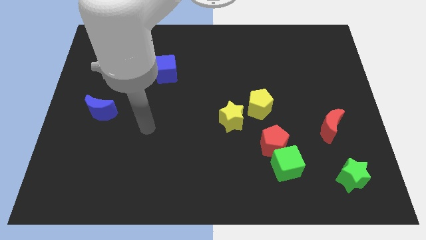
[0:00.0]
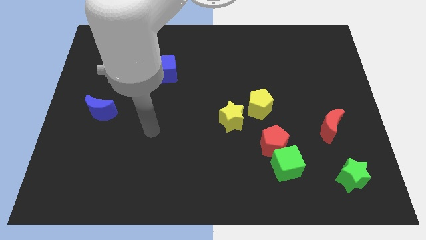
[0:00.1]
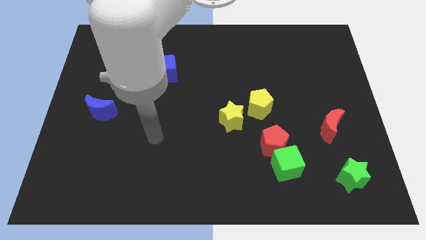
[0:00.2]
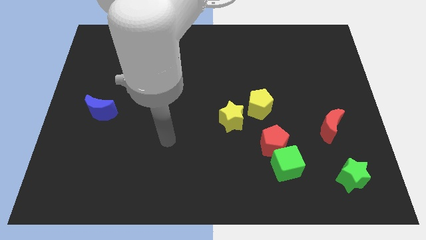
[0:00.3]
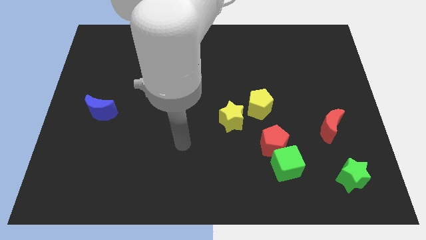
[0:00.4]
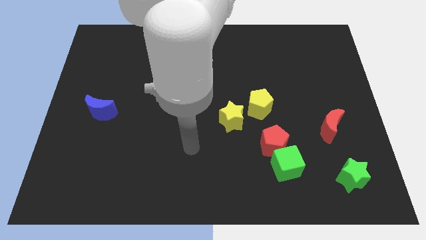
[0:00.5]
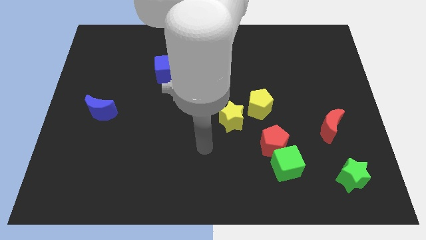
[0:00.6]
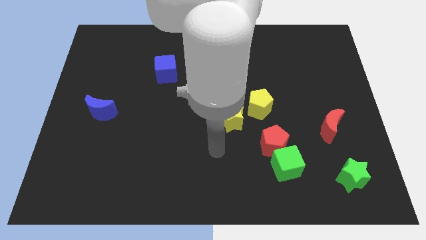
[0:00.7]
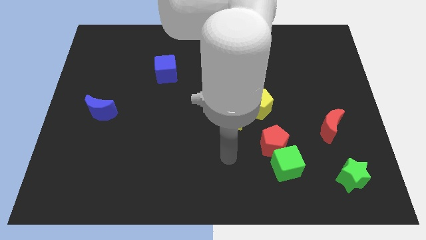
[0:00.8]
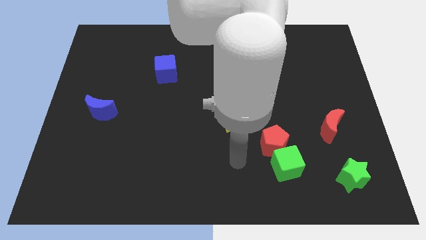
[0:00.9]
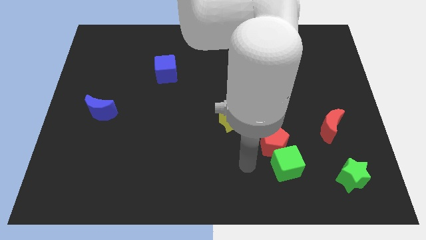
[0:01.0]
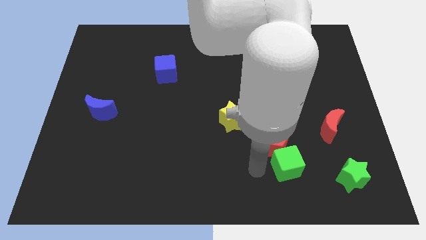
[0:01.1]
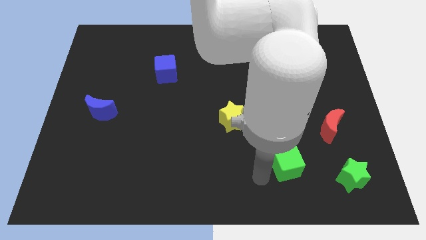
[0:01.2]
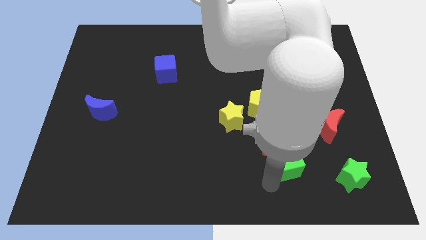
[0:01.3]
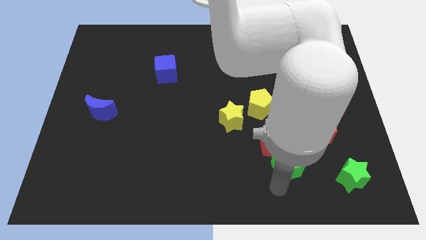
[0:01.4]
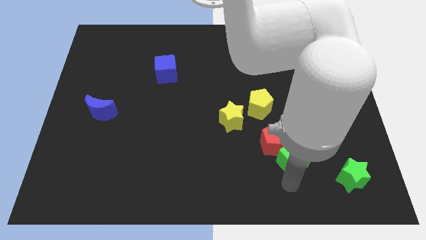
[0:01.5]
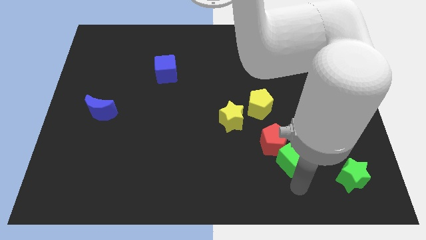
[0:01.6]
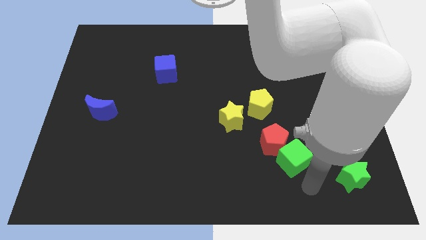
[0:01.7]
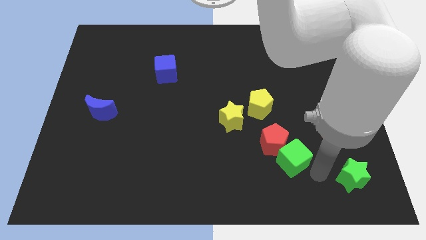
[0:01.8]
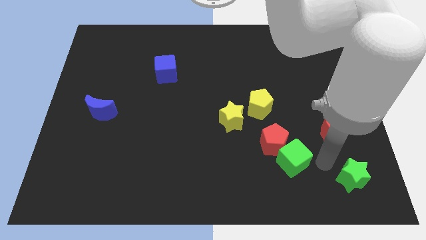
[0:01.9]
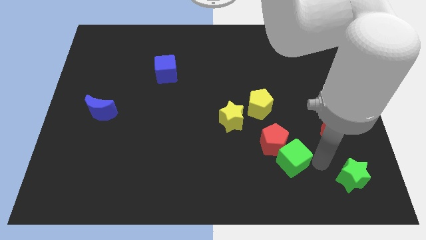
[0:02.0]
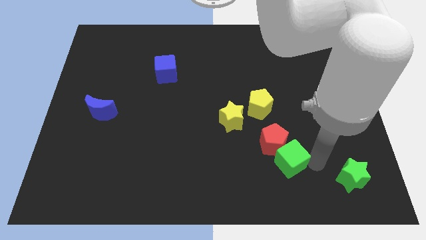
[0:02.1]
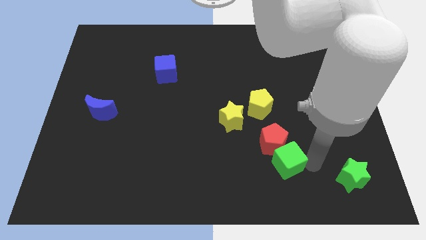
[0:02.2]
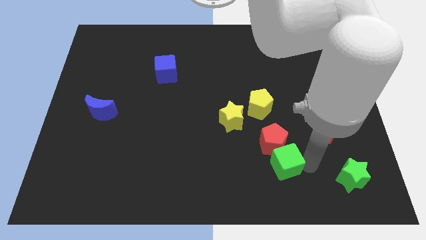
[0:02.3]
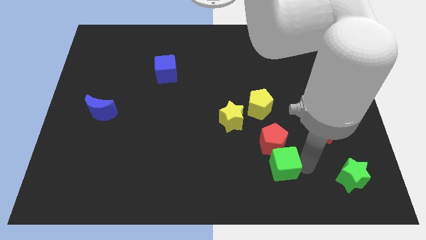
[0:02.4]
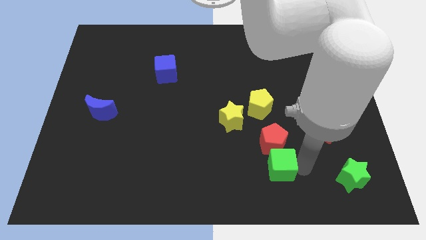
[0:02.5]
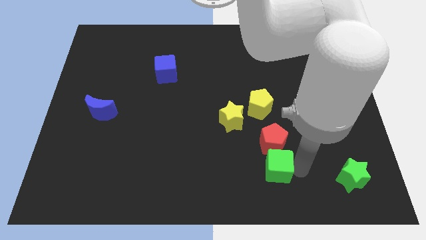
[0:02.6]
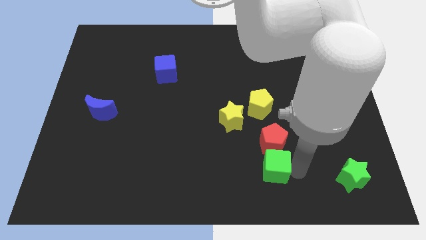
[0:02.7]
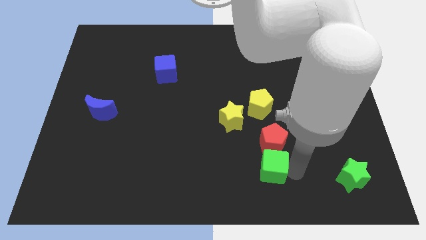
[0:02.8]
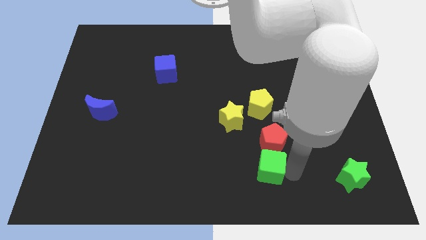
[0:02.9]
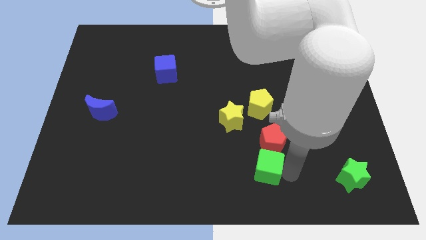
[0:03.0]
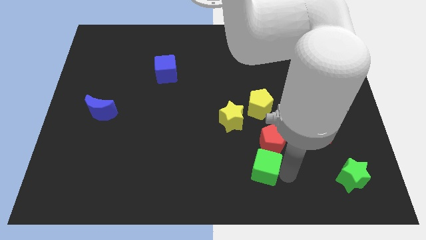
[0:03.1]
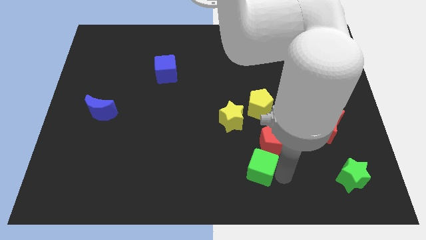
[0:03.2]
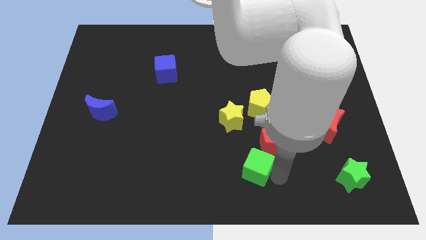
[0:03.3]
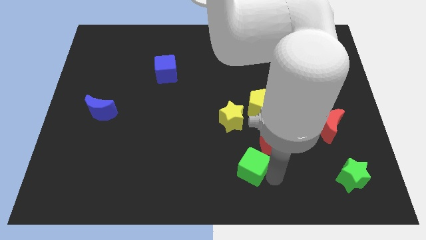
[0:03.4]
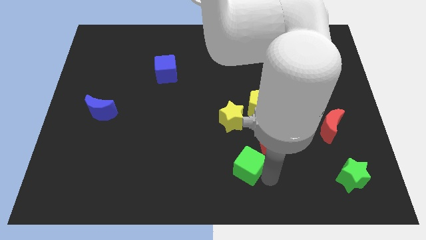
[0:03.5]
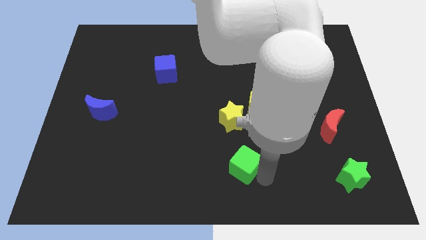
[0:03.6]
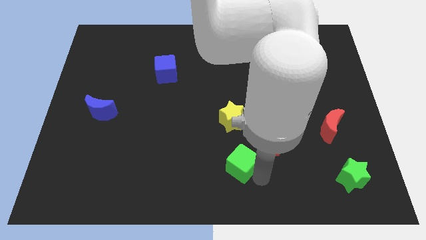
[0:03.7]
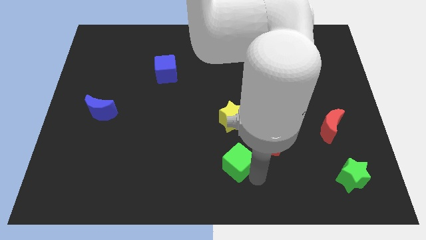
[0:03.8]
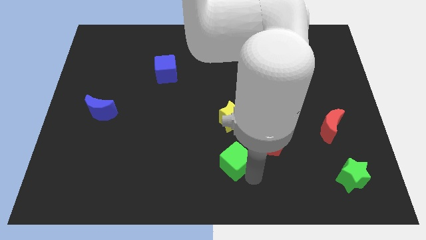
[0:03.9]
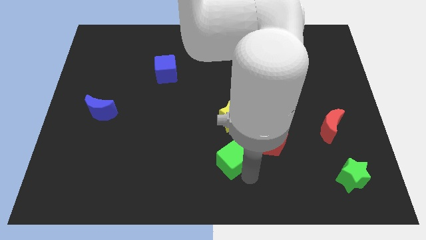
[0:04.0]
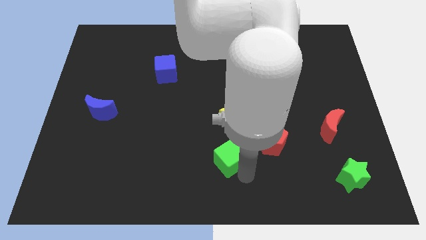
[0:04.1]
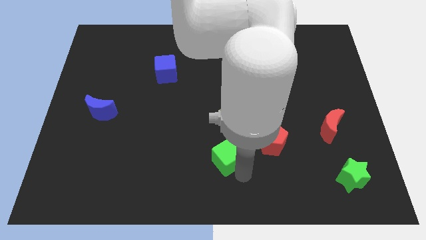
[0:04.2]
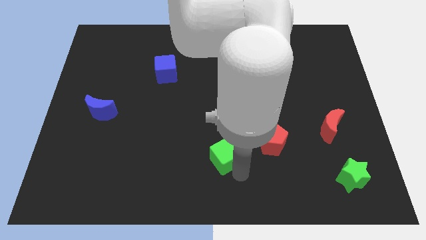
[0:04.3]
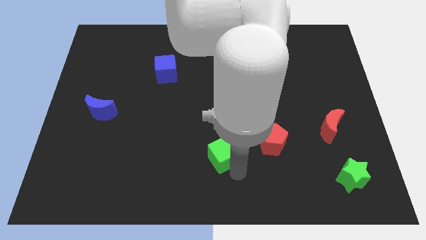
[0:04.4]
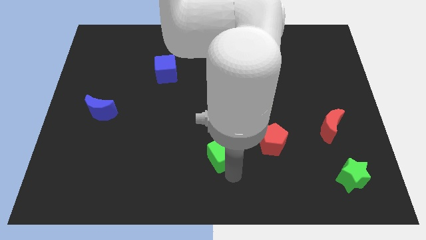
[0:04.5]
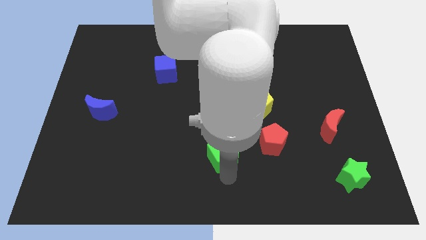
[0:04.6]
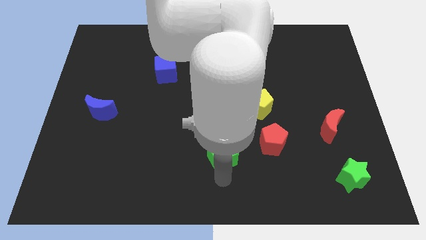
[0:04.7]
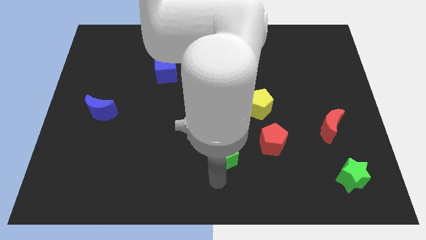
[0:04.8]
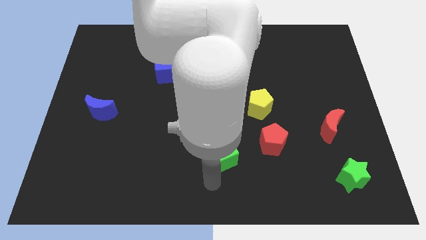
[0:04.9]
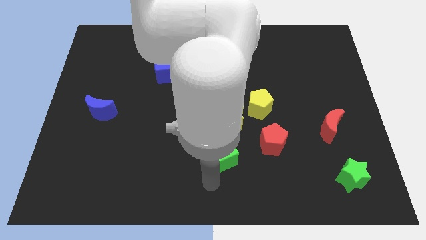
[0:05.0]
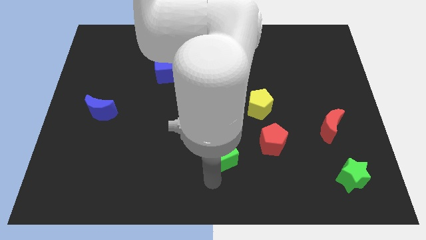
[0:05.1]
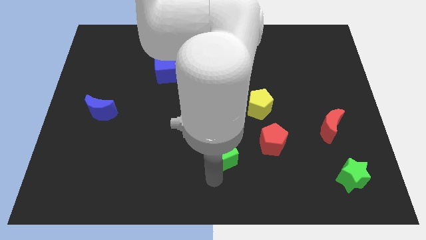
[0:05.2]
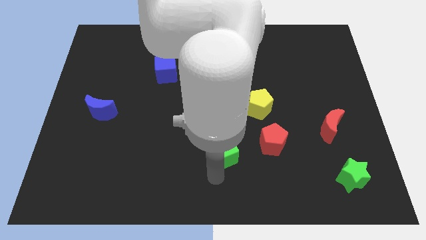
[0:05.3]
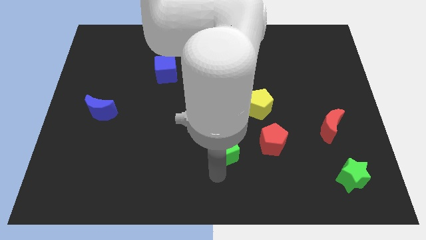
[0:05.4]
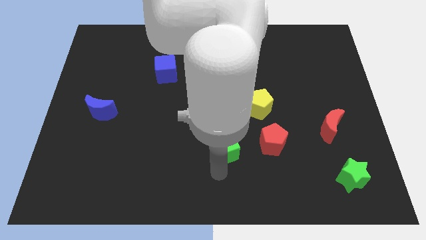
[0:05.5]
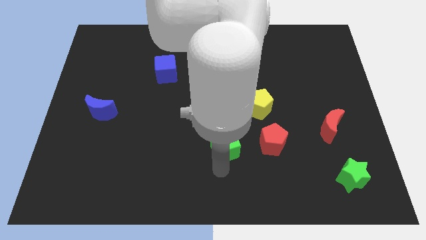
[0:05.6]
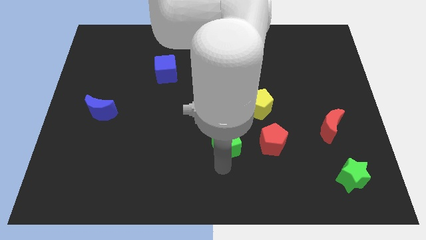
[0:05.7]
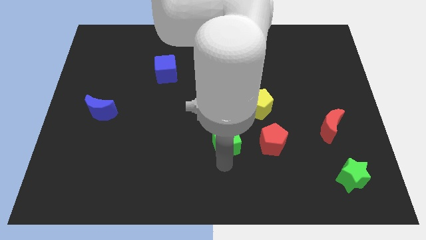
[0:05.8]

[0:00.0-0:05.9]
put the green cube to the middle

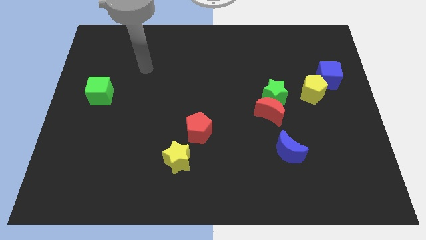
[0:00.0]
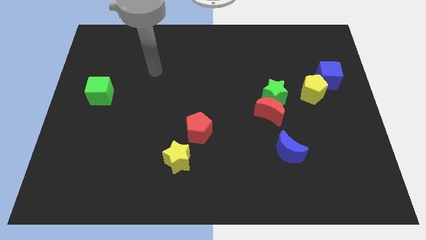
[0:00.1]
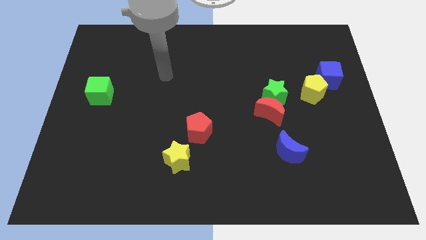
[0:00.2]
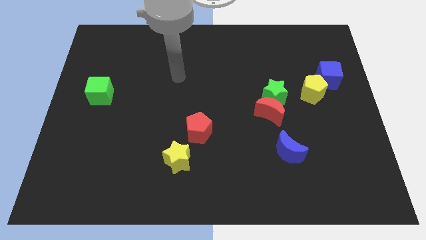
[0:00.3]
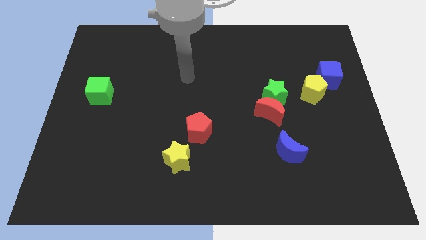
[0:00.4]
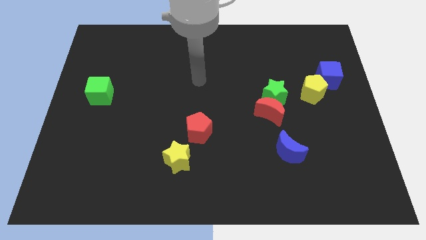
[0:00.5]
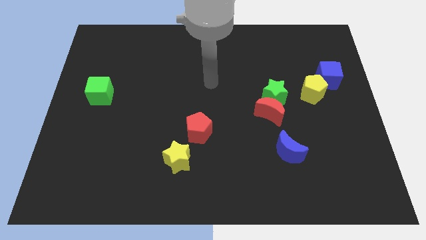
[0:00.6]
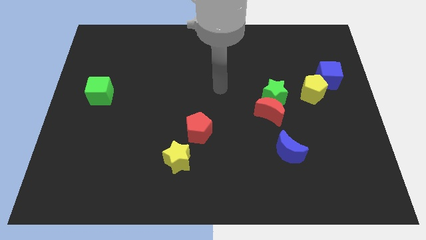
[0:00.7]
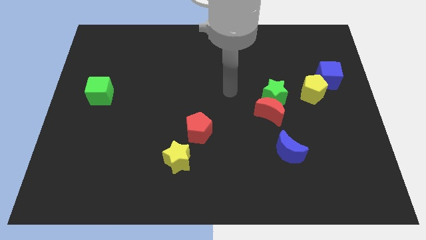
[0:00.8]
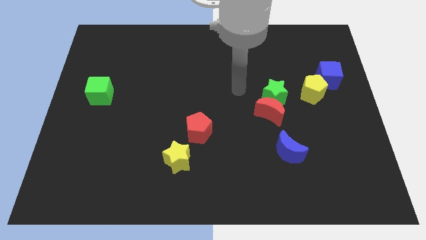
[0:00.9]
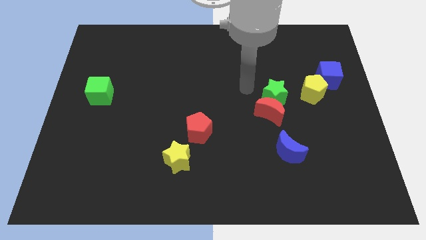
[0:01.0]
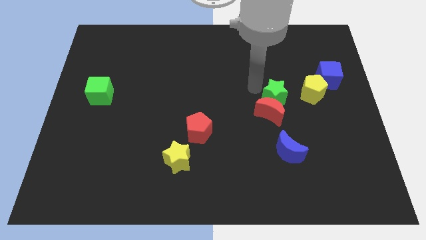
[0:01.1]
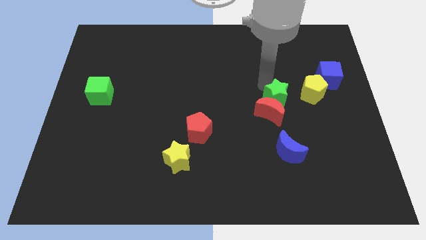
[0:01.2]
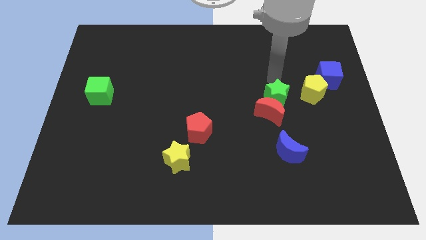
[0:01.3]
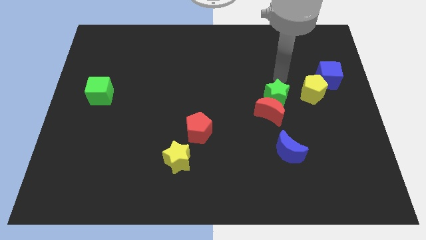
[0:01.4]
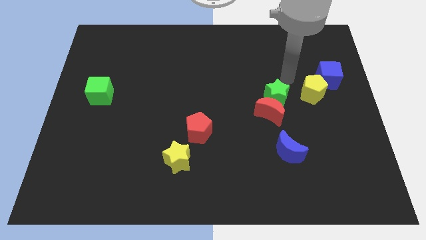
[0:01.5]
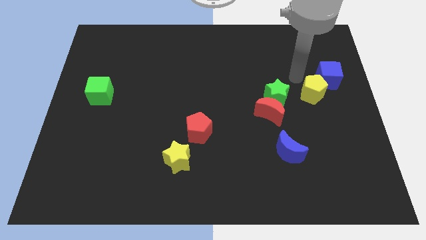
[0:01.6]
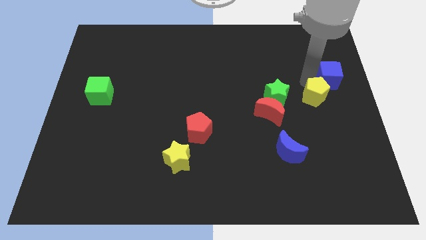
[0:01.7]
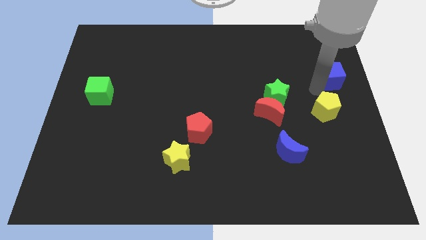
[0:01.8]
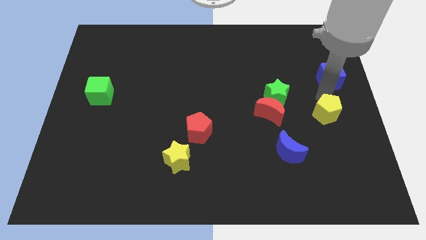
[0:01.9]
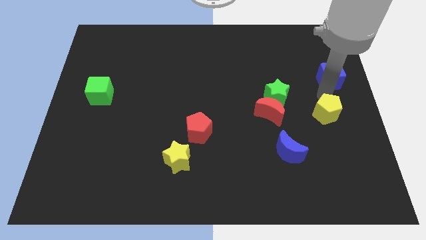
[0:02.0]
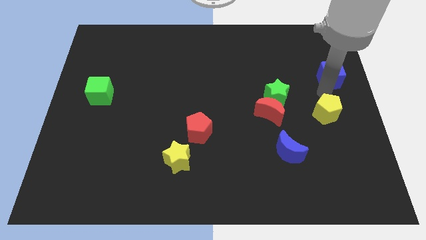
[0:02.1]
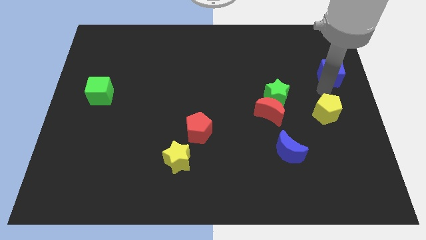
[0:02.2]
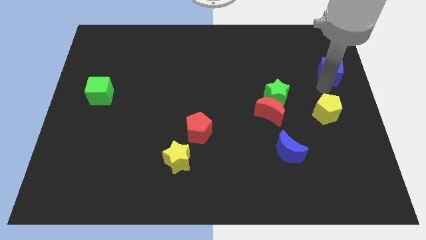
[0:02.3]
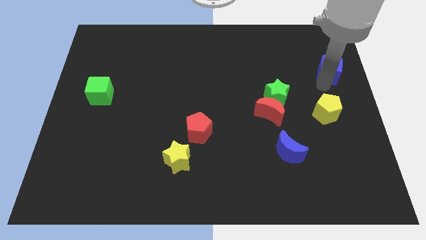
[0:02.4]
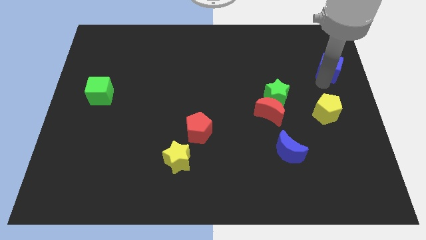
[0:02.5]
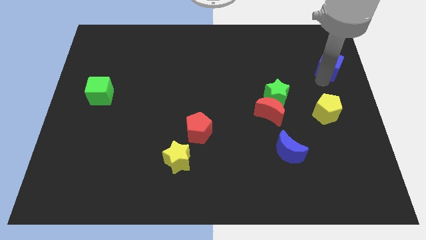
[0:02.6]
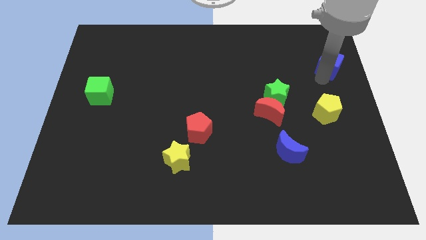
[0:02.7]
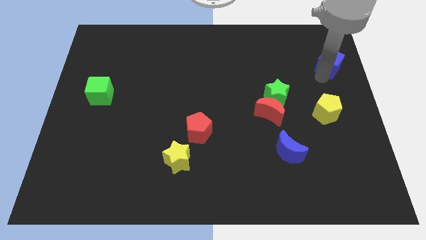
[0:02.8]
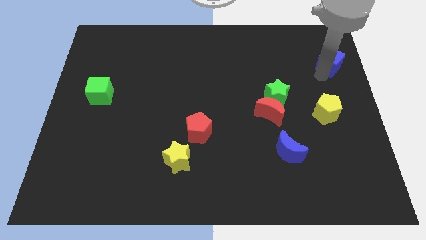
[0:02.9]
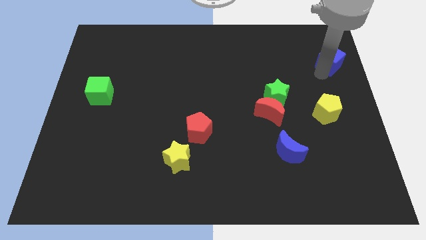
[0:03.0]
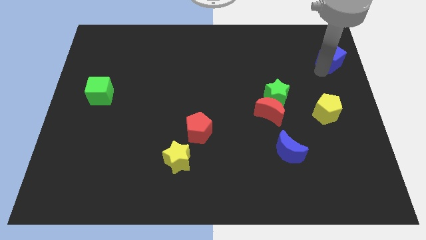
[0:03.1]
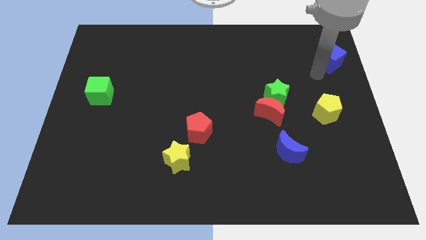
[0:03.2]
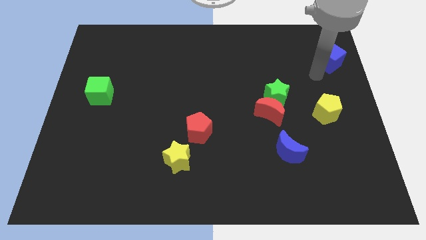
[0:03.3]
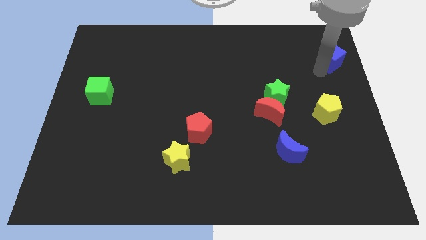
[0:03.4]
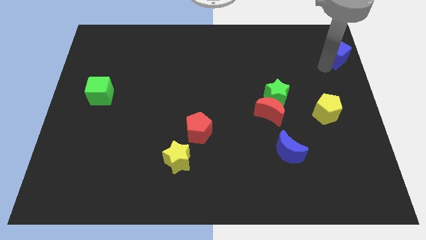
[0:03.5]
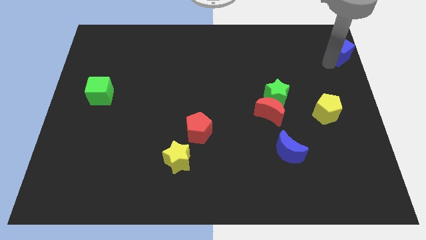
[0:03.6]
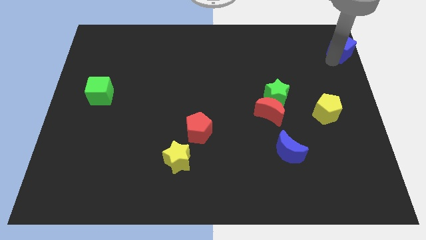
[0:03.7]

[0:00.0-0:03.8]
slide the blue cube to the top right of the board
